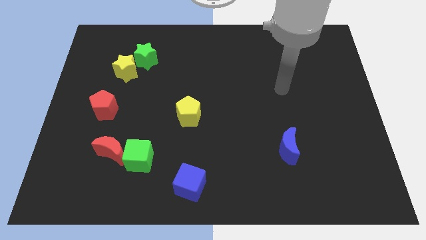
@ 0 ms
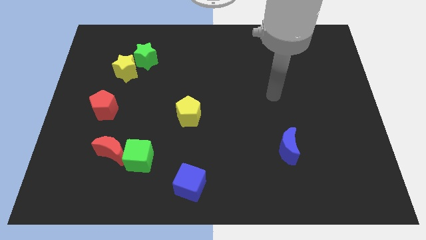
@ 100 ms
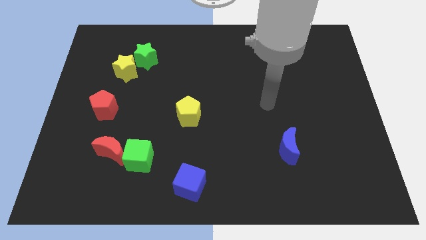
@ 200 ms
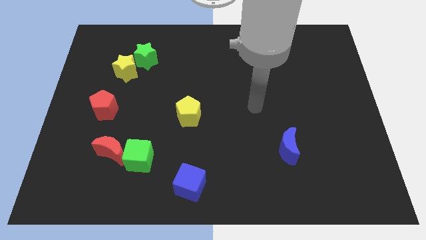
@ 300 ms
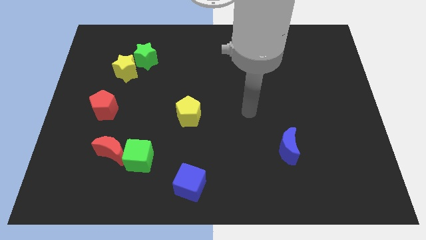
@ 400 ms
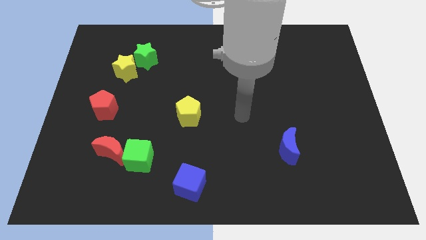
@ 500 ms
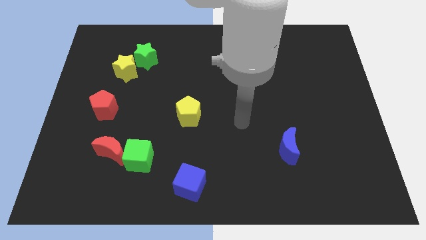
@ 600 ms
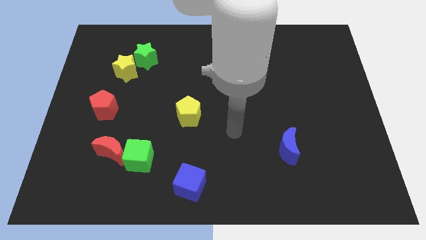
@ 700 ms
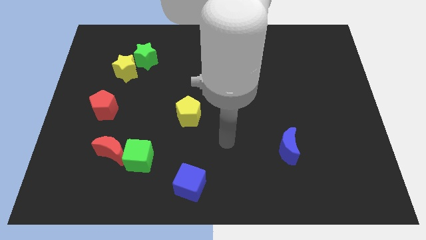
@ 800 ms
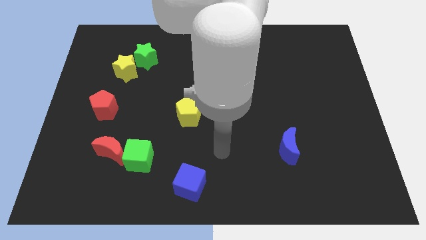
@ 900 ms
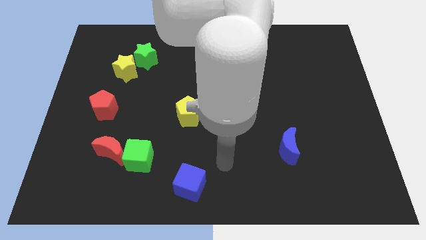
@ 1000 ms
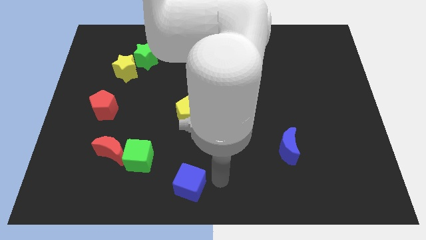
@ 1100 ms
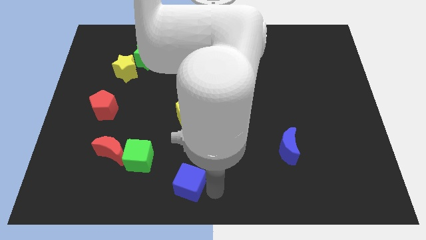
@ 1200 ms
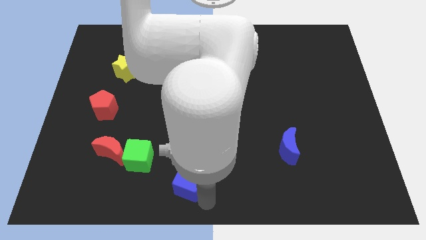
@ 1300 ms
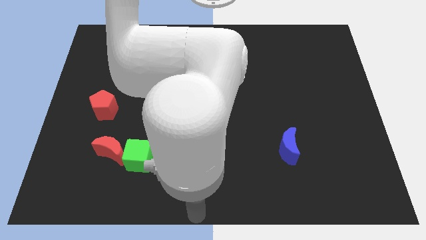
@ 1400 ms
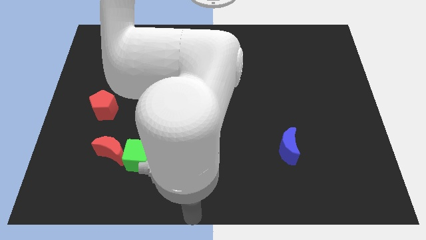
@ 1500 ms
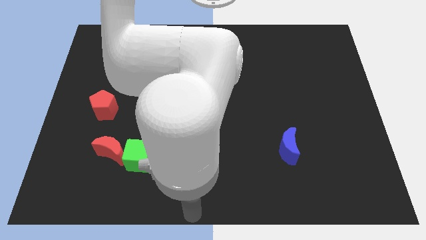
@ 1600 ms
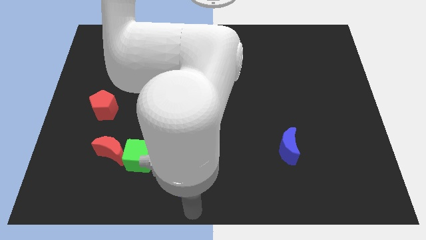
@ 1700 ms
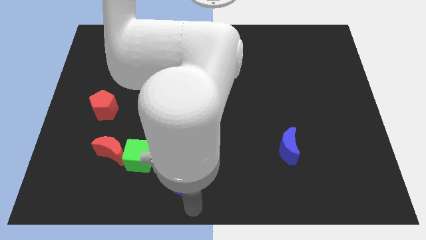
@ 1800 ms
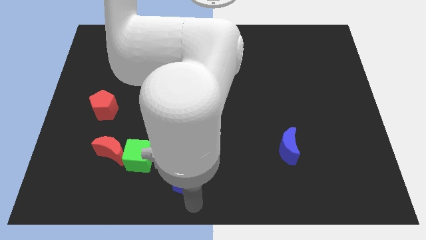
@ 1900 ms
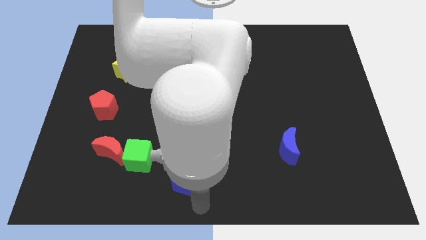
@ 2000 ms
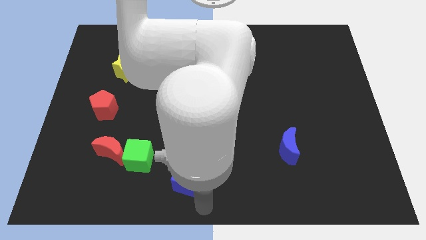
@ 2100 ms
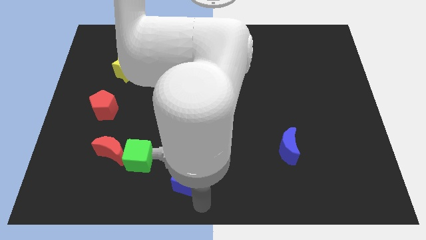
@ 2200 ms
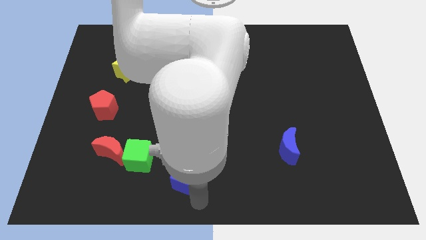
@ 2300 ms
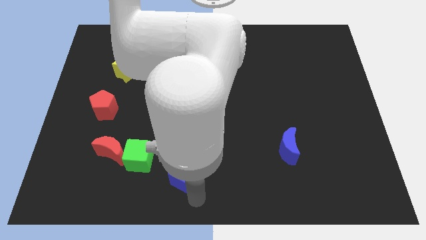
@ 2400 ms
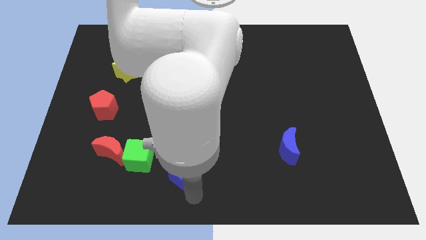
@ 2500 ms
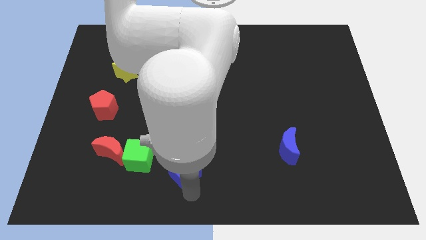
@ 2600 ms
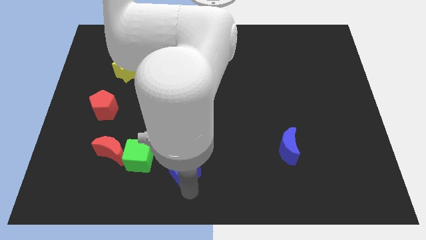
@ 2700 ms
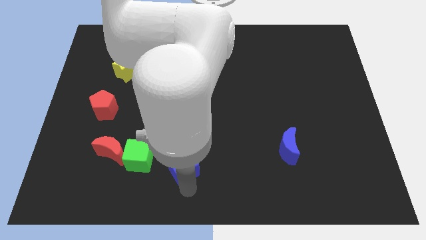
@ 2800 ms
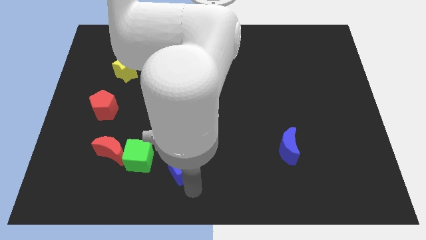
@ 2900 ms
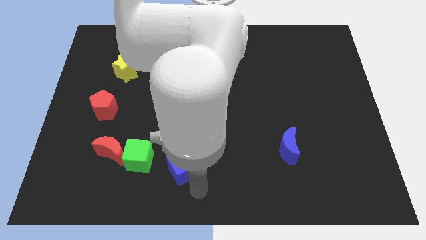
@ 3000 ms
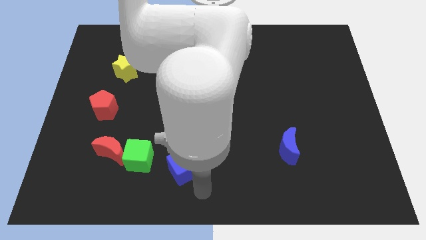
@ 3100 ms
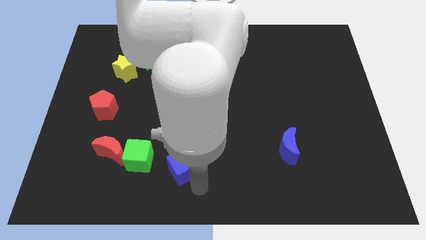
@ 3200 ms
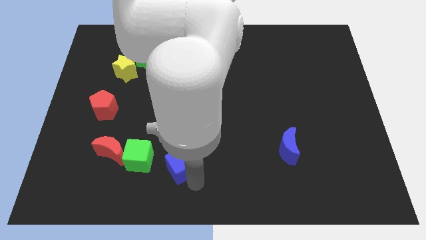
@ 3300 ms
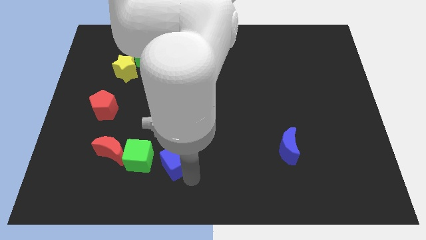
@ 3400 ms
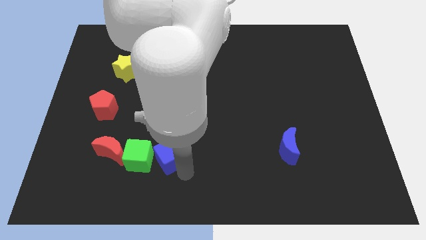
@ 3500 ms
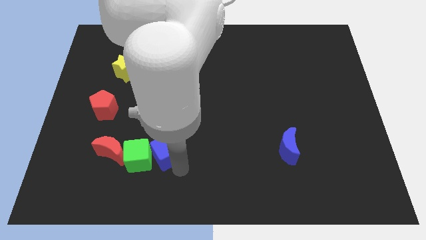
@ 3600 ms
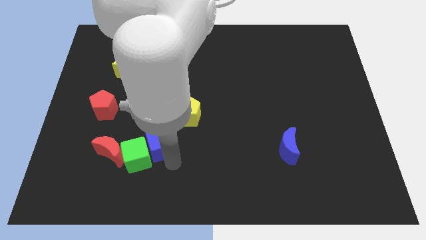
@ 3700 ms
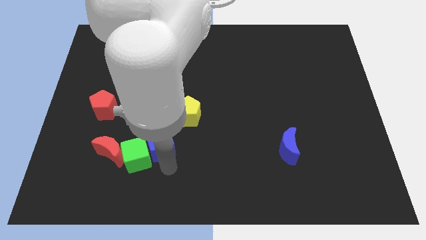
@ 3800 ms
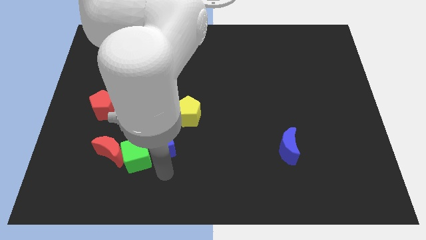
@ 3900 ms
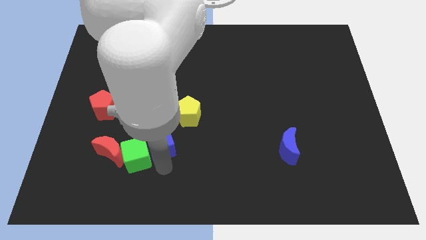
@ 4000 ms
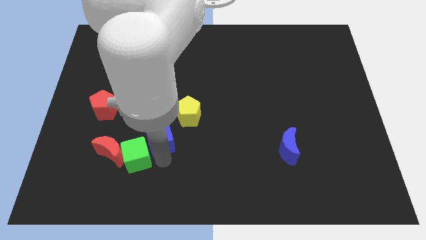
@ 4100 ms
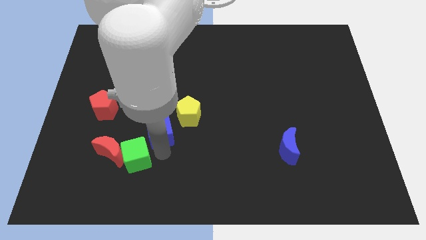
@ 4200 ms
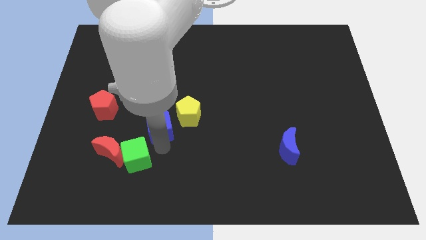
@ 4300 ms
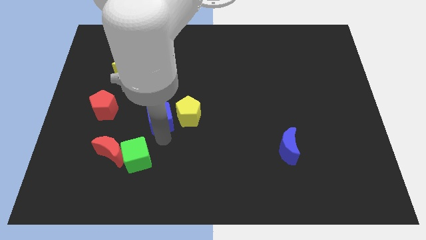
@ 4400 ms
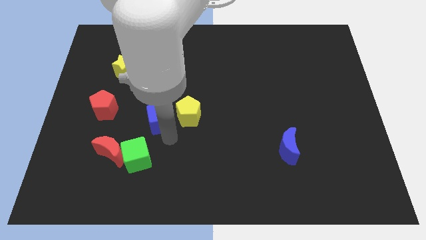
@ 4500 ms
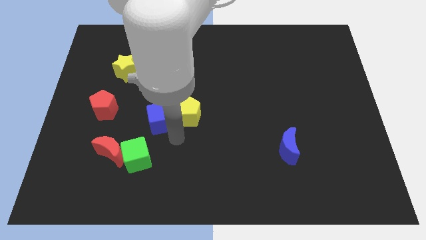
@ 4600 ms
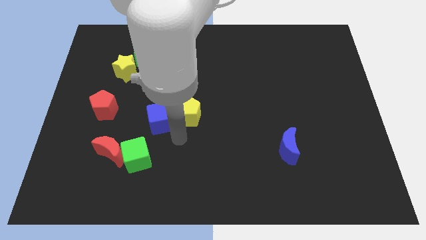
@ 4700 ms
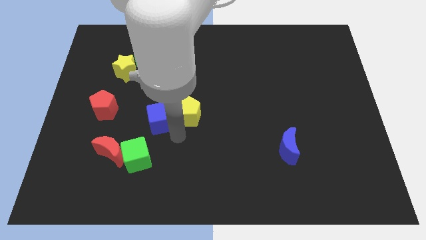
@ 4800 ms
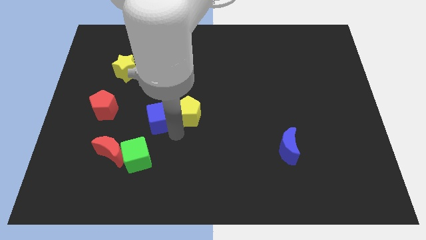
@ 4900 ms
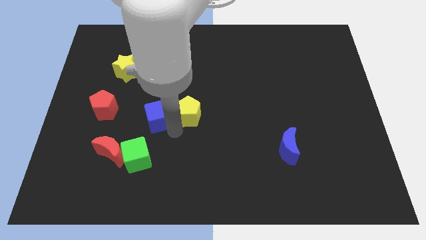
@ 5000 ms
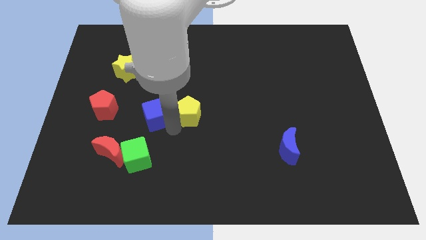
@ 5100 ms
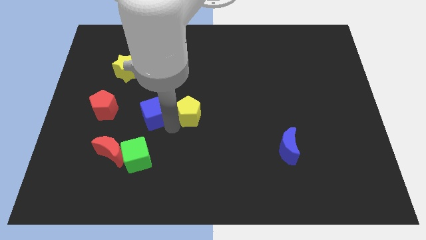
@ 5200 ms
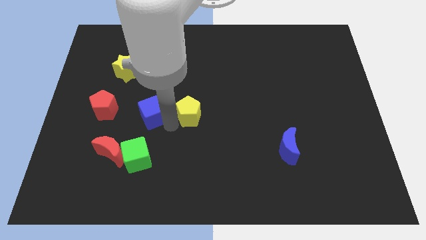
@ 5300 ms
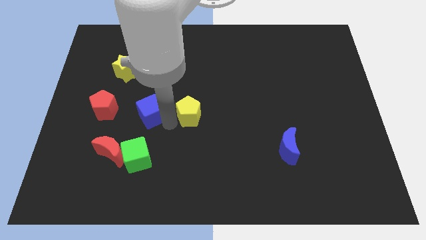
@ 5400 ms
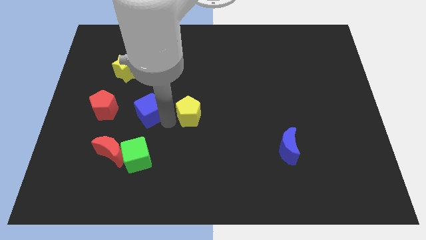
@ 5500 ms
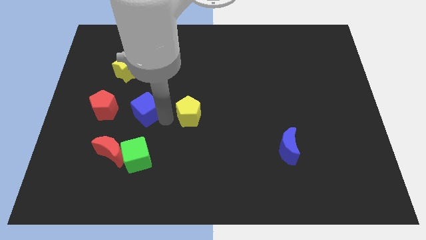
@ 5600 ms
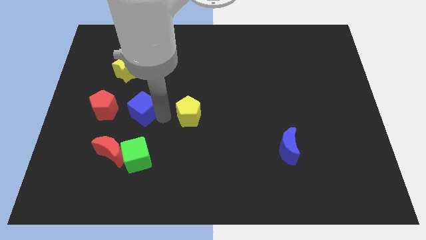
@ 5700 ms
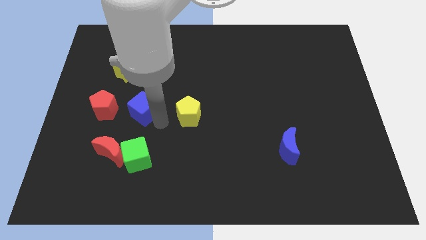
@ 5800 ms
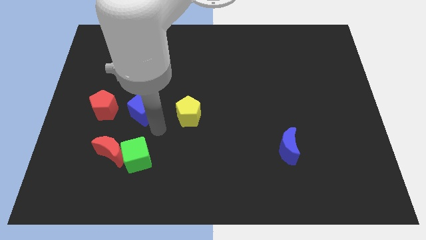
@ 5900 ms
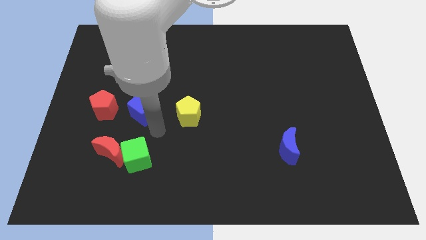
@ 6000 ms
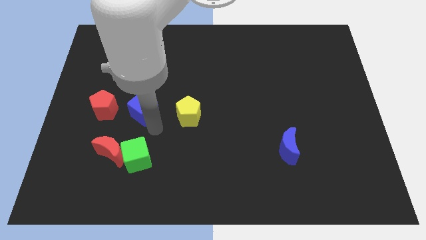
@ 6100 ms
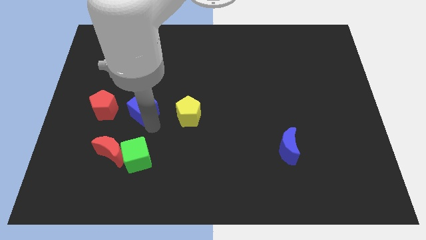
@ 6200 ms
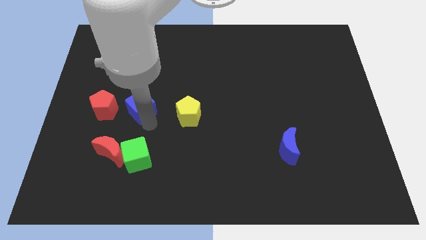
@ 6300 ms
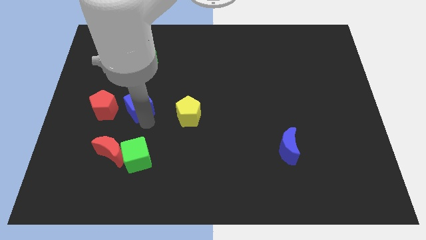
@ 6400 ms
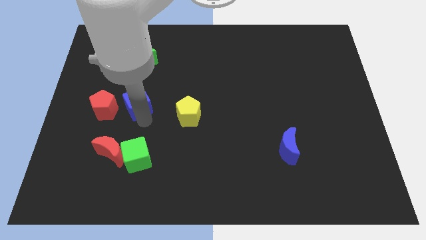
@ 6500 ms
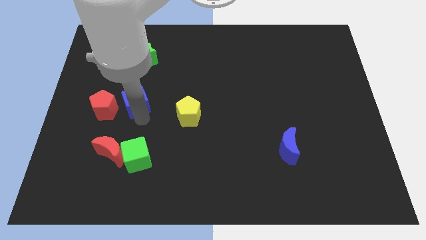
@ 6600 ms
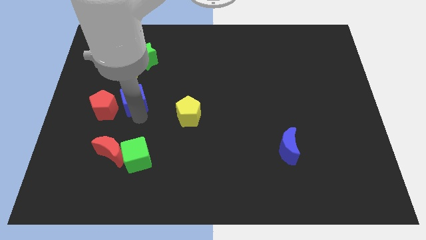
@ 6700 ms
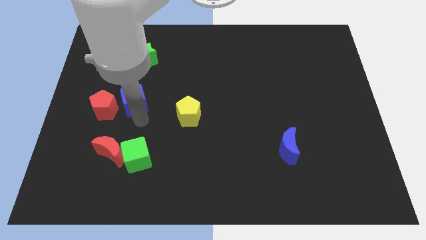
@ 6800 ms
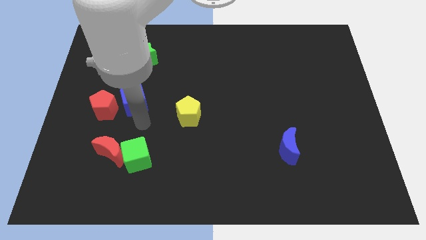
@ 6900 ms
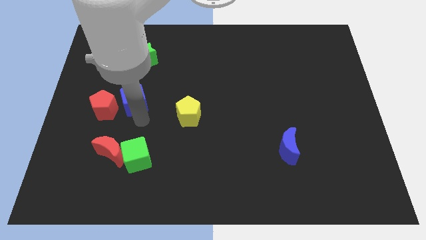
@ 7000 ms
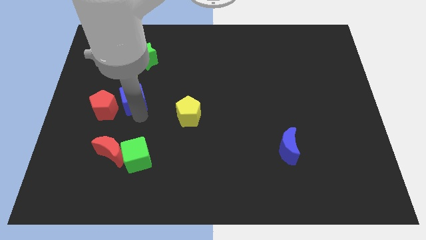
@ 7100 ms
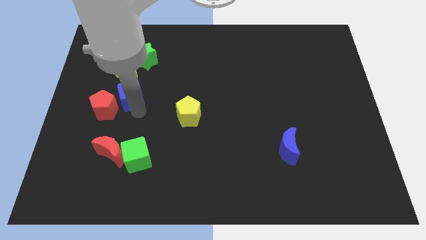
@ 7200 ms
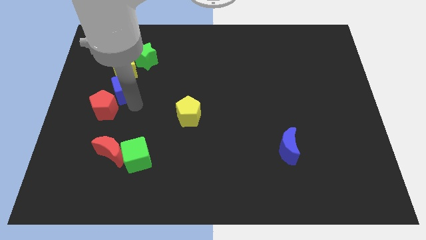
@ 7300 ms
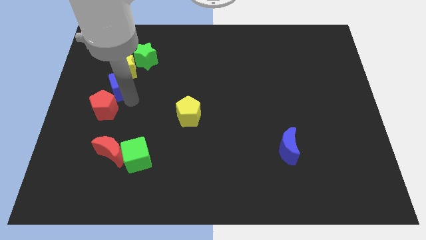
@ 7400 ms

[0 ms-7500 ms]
move the blue cube towards the yellow star
